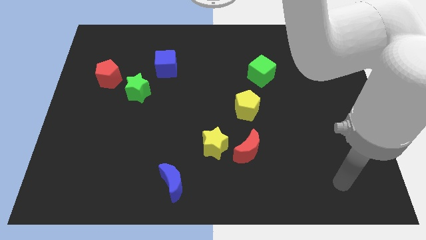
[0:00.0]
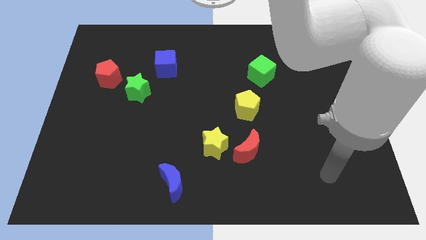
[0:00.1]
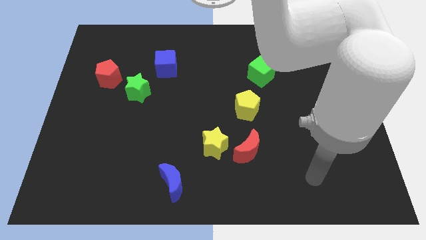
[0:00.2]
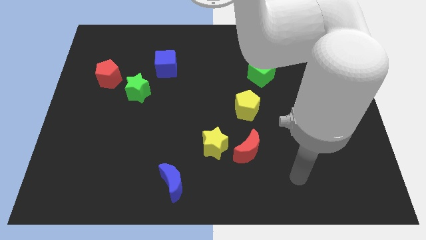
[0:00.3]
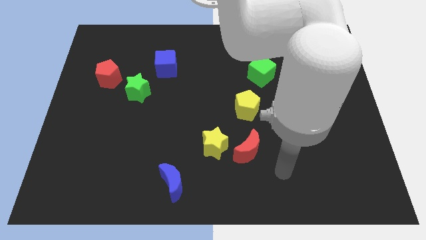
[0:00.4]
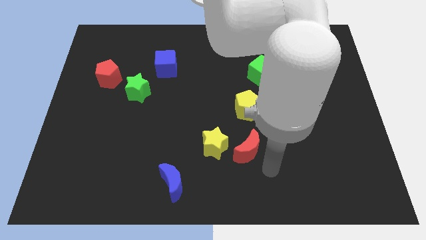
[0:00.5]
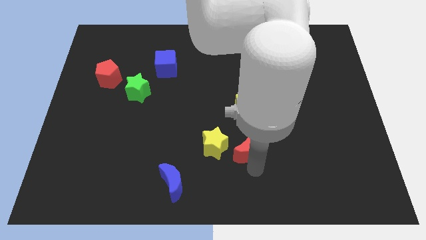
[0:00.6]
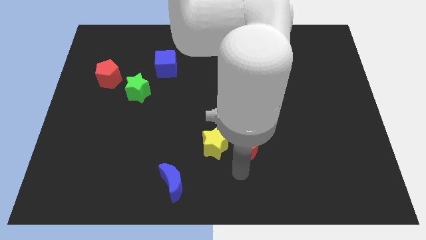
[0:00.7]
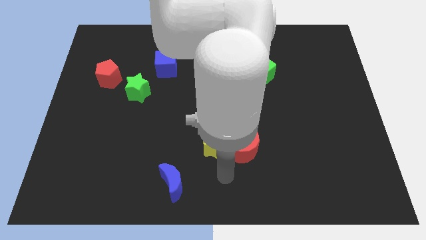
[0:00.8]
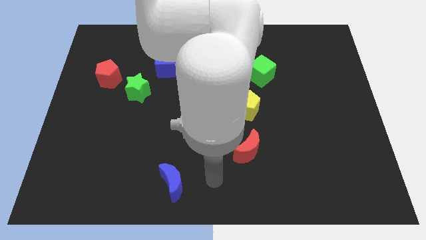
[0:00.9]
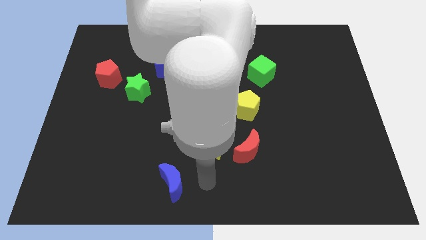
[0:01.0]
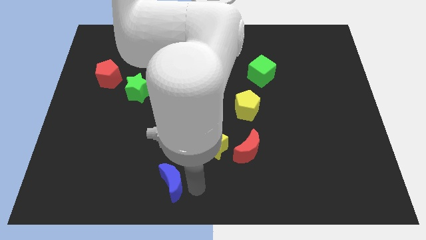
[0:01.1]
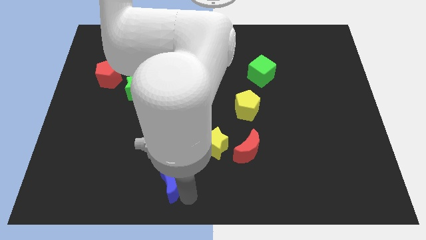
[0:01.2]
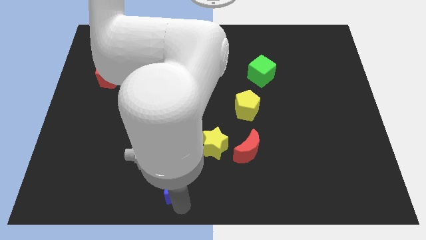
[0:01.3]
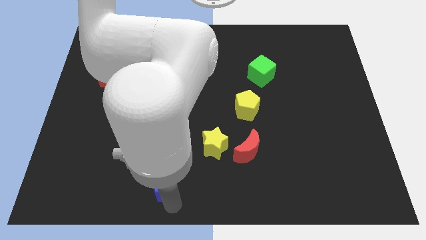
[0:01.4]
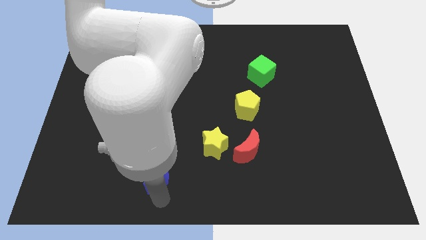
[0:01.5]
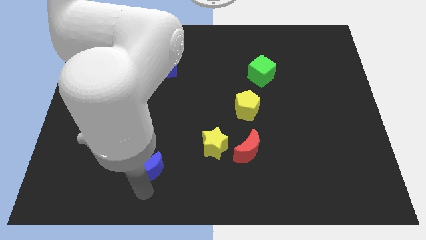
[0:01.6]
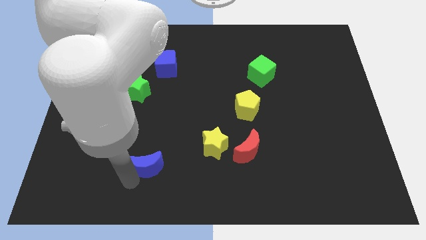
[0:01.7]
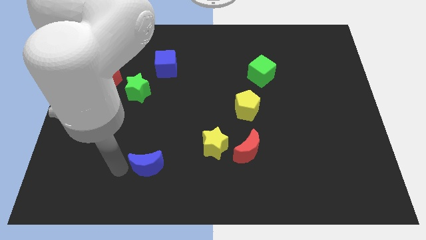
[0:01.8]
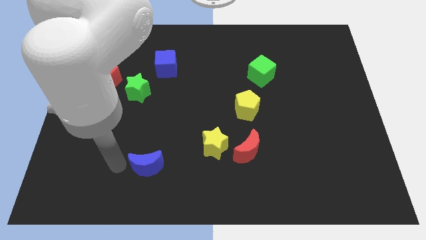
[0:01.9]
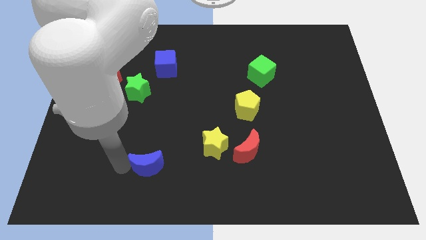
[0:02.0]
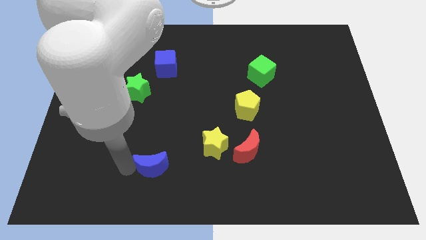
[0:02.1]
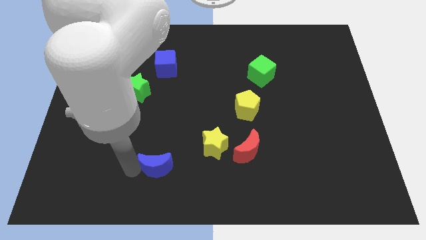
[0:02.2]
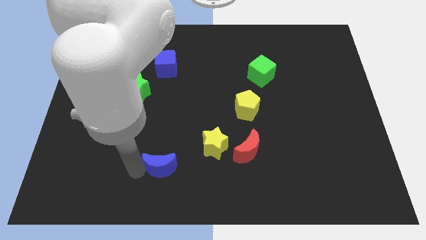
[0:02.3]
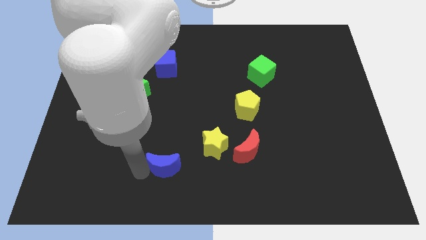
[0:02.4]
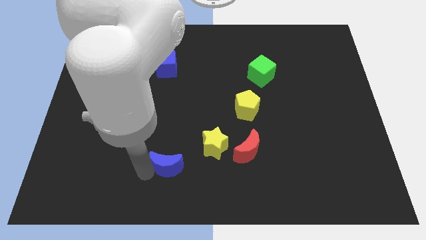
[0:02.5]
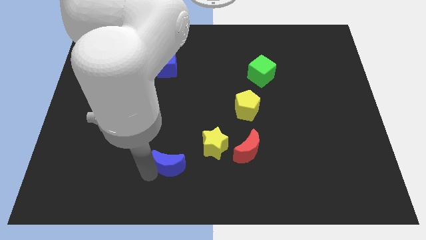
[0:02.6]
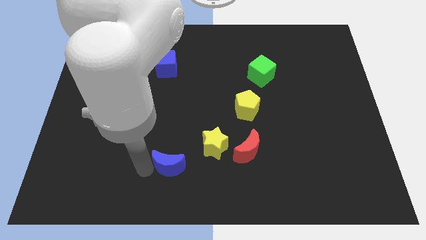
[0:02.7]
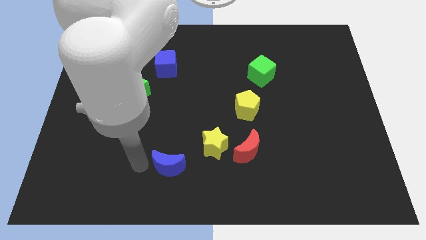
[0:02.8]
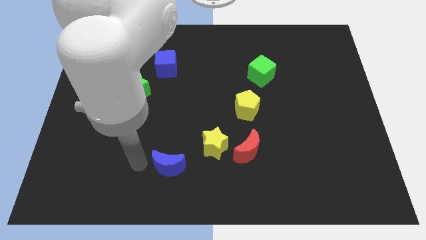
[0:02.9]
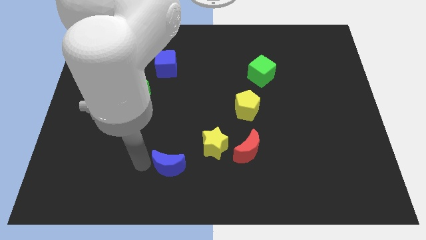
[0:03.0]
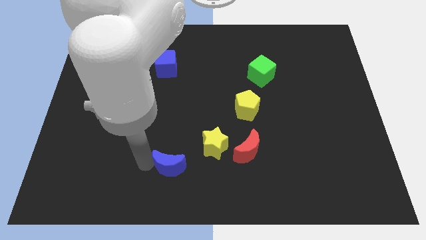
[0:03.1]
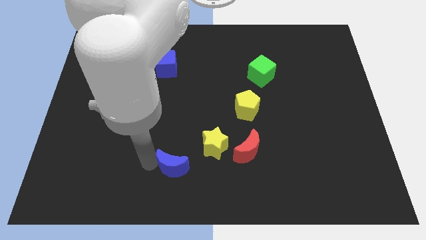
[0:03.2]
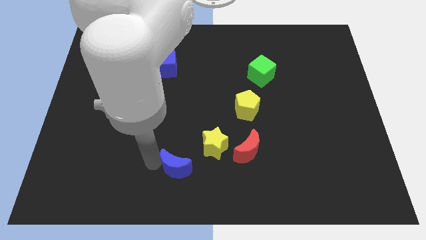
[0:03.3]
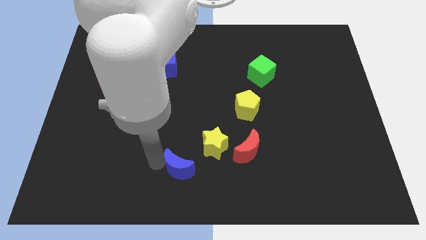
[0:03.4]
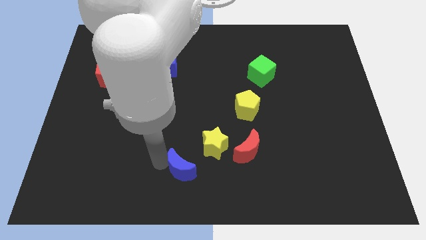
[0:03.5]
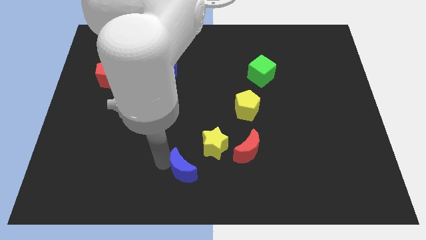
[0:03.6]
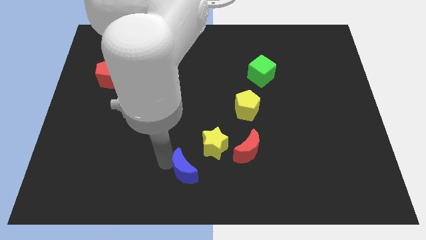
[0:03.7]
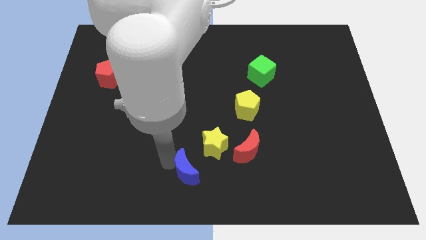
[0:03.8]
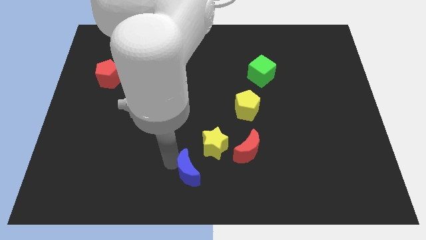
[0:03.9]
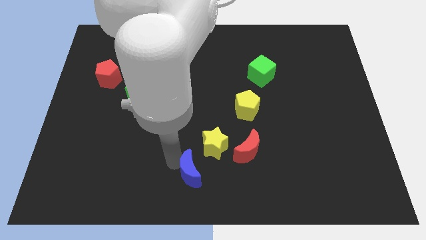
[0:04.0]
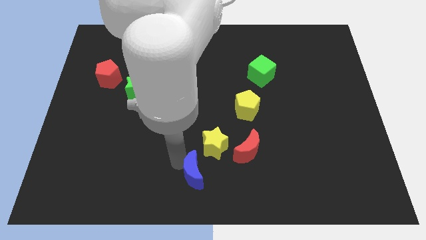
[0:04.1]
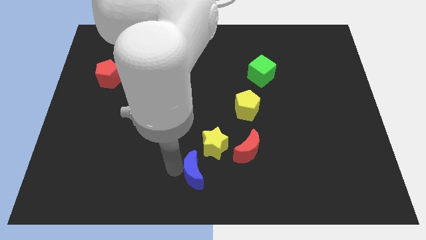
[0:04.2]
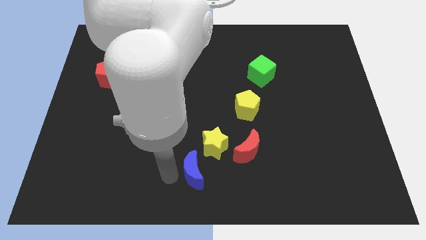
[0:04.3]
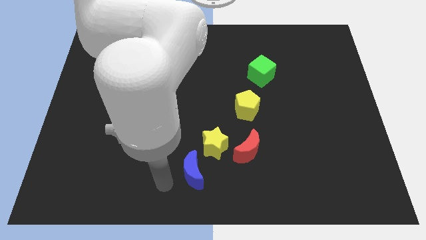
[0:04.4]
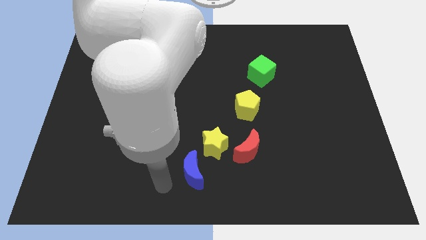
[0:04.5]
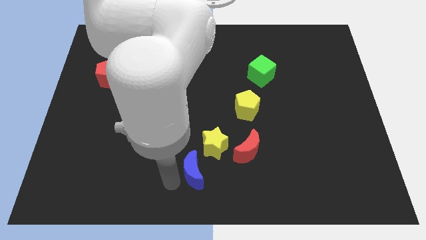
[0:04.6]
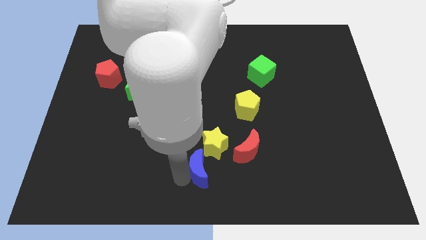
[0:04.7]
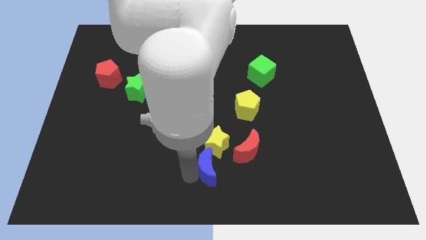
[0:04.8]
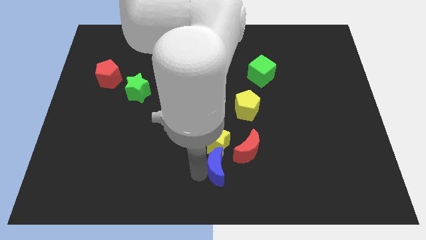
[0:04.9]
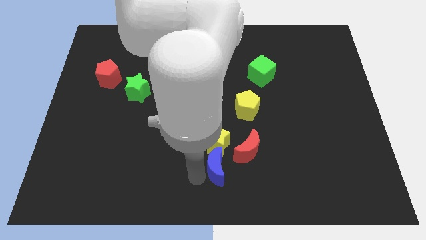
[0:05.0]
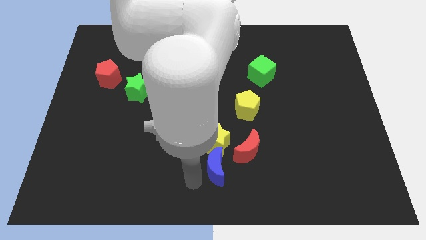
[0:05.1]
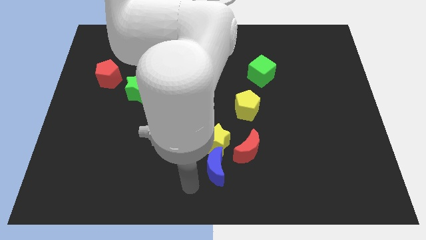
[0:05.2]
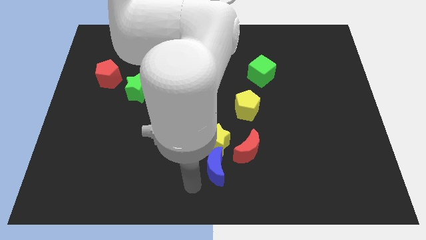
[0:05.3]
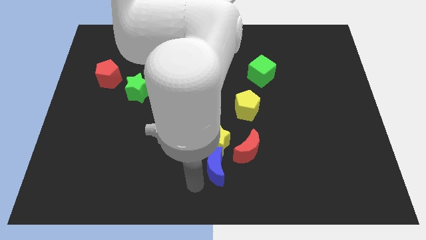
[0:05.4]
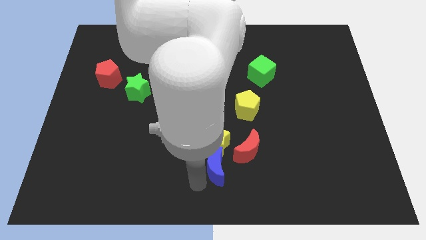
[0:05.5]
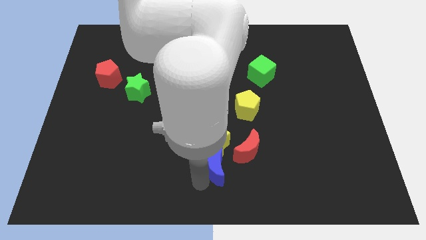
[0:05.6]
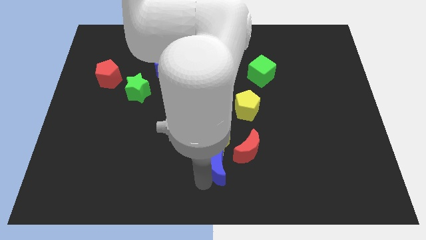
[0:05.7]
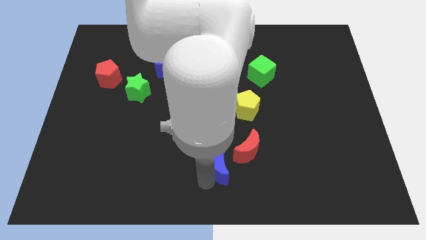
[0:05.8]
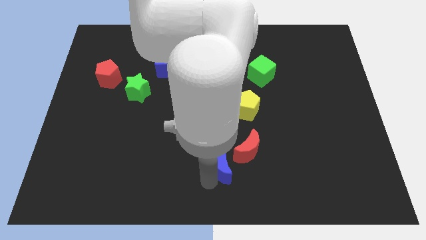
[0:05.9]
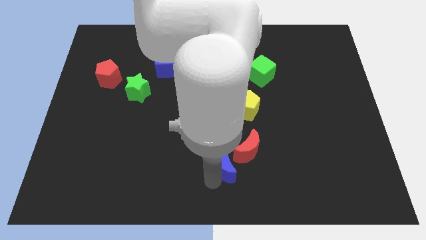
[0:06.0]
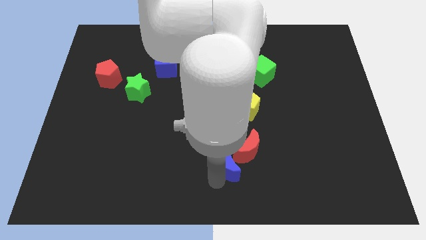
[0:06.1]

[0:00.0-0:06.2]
push the blue moon towards the red moon
